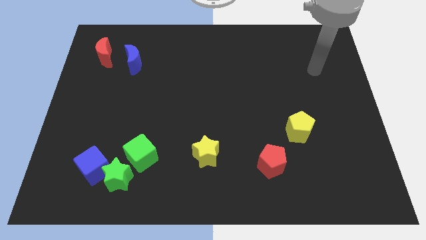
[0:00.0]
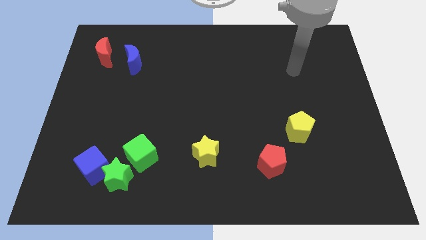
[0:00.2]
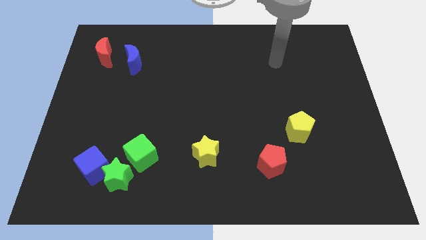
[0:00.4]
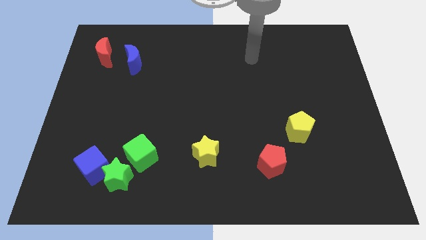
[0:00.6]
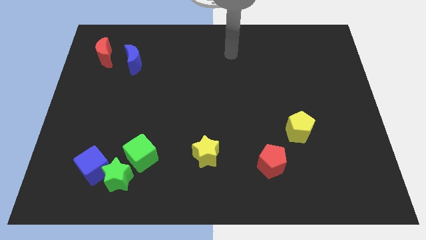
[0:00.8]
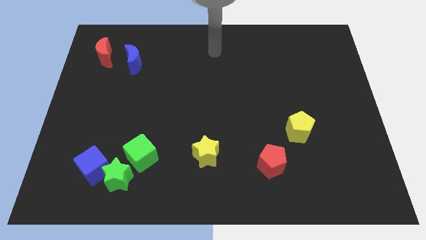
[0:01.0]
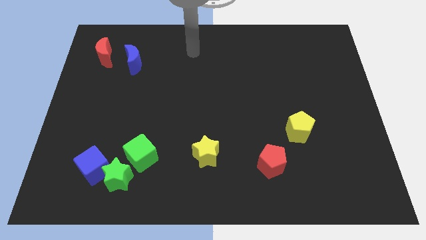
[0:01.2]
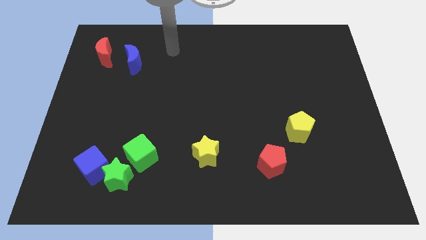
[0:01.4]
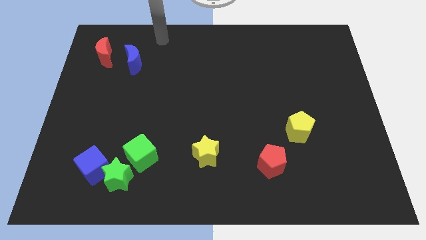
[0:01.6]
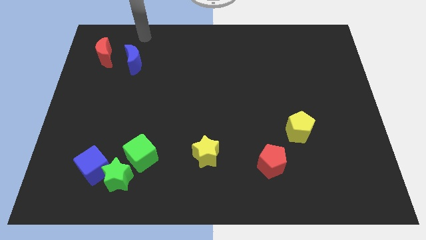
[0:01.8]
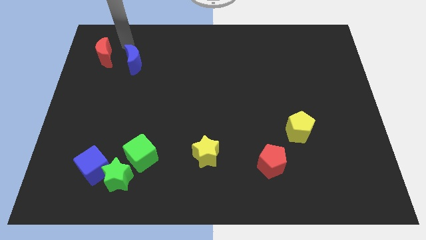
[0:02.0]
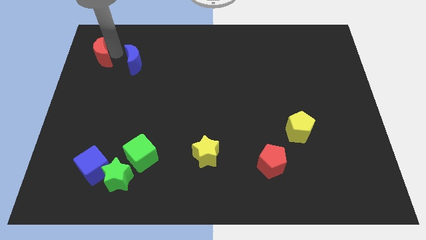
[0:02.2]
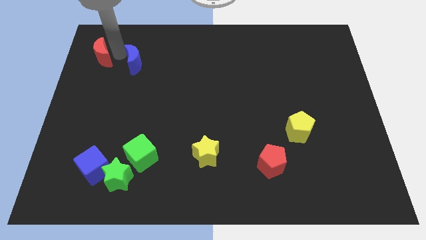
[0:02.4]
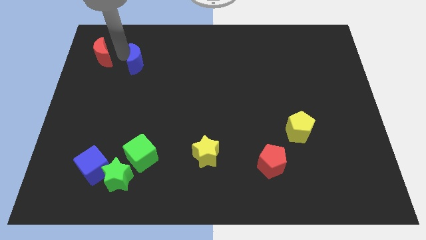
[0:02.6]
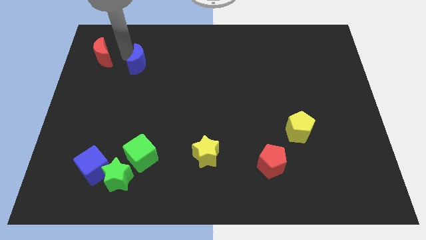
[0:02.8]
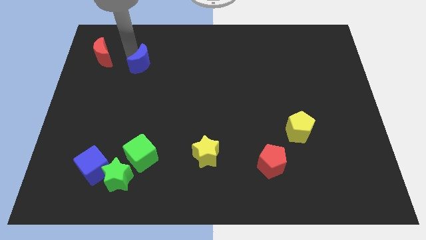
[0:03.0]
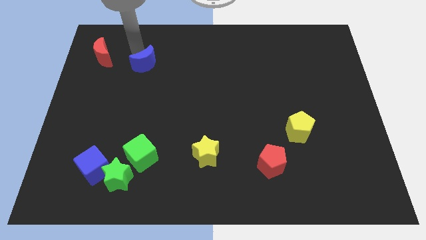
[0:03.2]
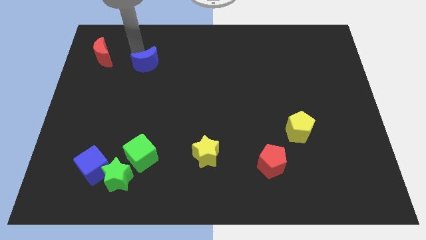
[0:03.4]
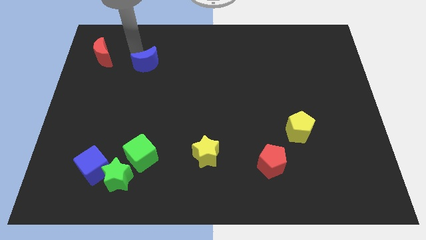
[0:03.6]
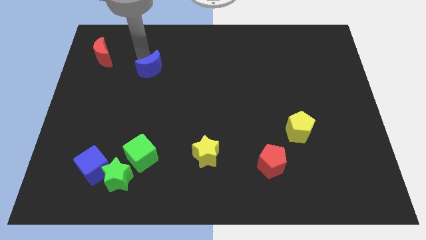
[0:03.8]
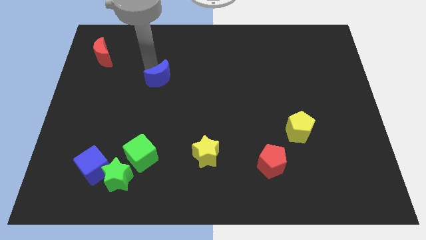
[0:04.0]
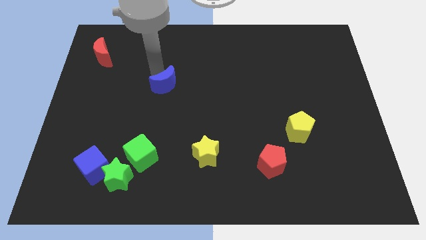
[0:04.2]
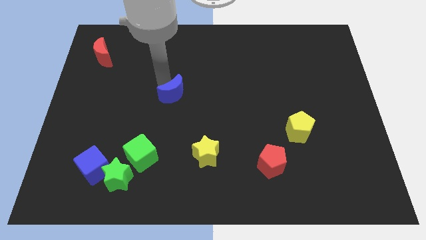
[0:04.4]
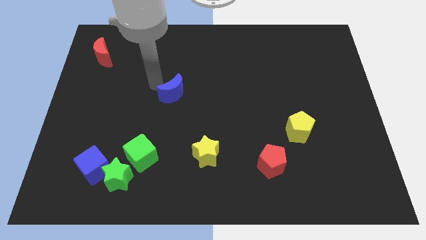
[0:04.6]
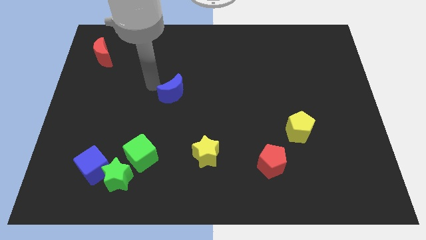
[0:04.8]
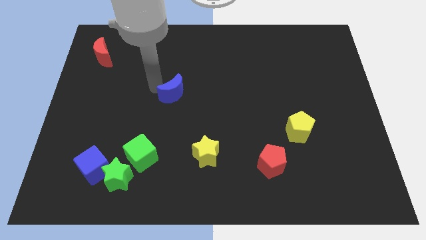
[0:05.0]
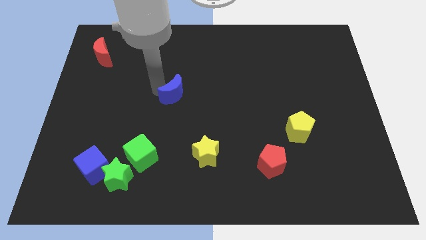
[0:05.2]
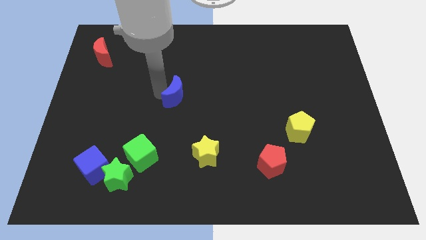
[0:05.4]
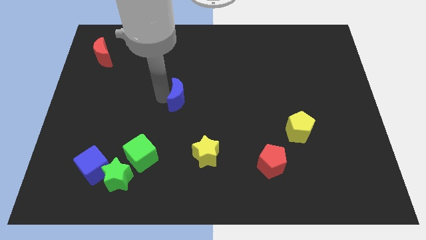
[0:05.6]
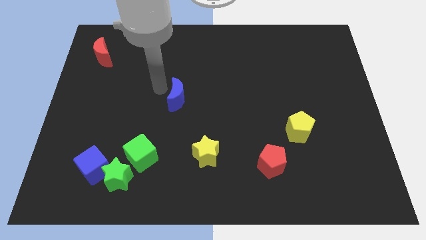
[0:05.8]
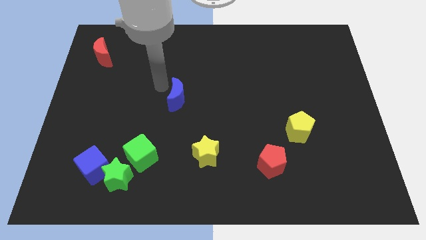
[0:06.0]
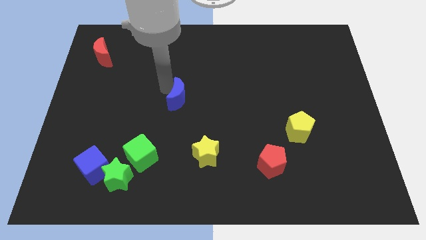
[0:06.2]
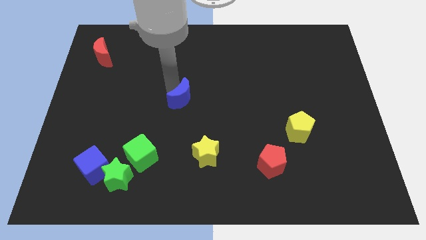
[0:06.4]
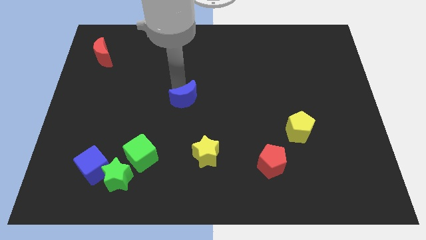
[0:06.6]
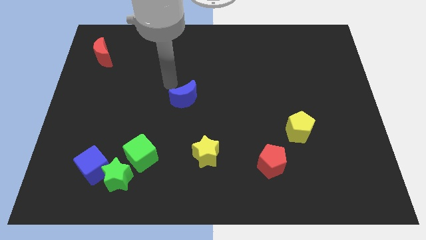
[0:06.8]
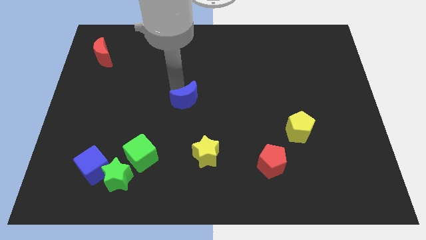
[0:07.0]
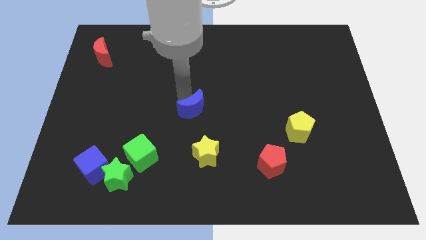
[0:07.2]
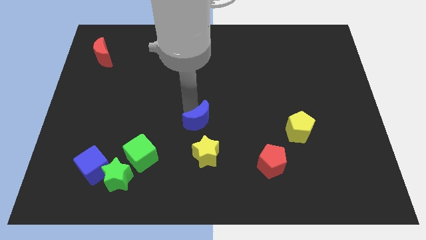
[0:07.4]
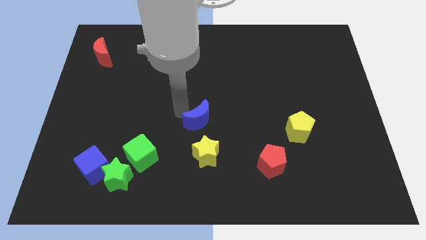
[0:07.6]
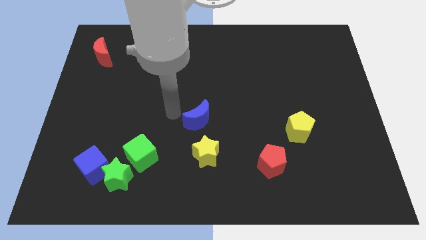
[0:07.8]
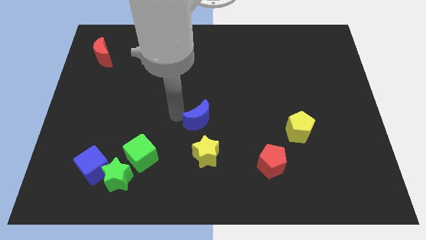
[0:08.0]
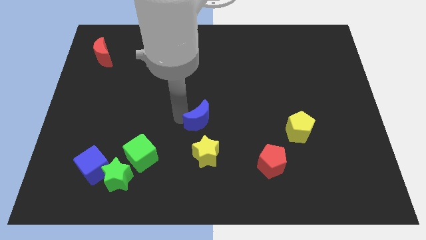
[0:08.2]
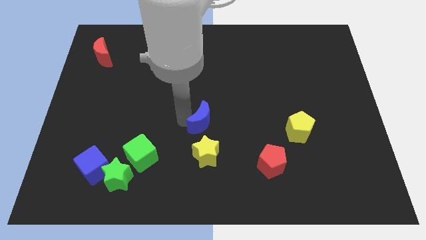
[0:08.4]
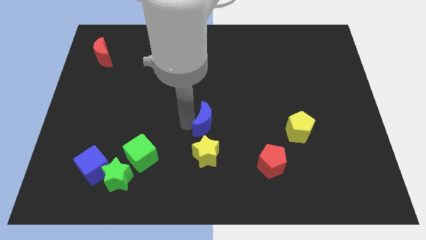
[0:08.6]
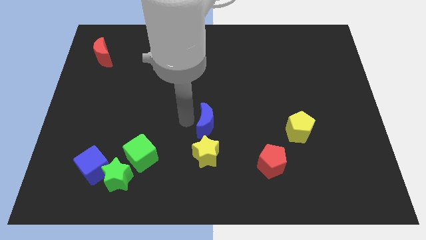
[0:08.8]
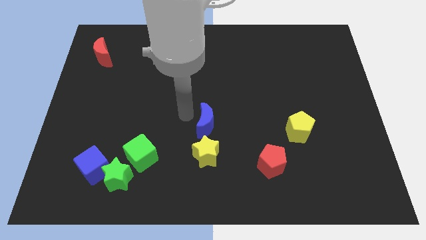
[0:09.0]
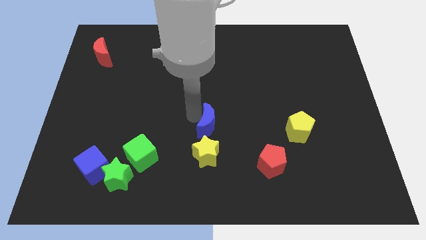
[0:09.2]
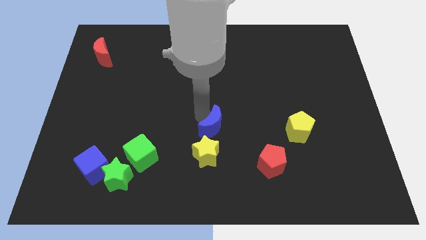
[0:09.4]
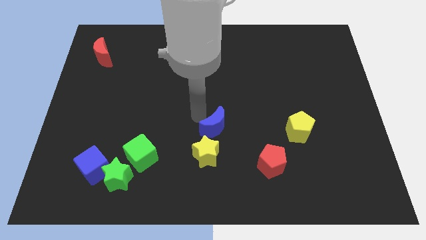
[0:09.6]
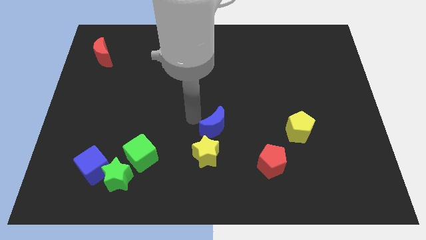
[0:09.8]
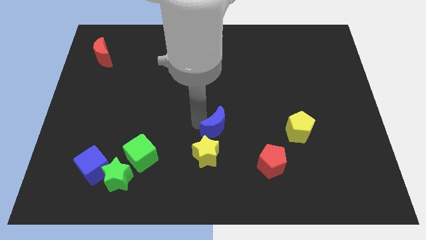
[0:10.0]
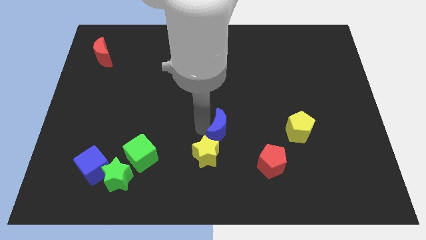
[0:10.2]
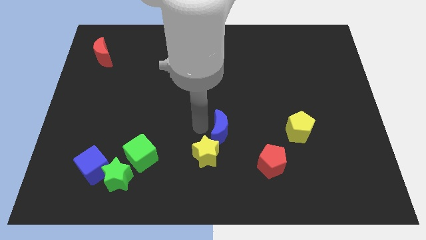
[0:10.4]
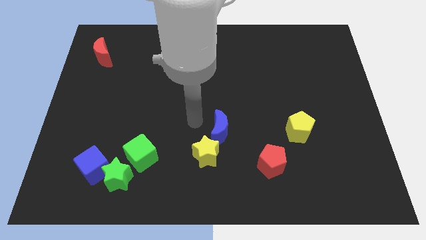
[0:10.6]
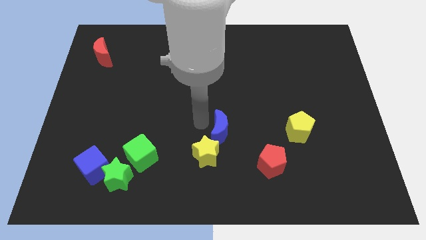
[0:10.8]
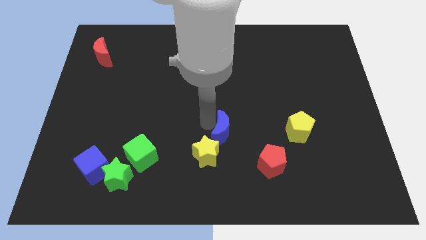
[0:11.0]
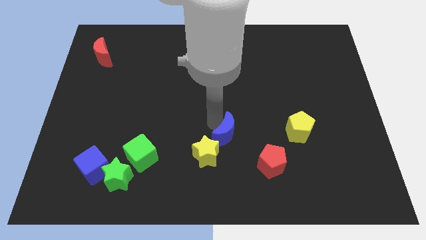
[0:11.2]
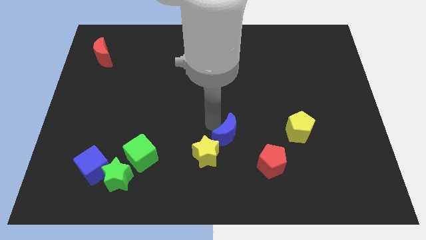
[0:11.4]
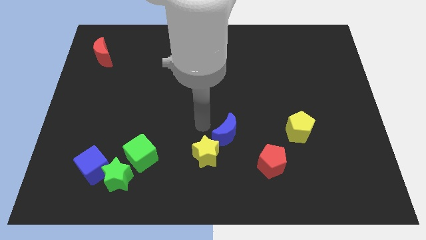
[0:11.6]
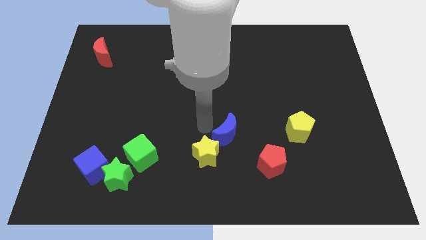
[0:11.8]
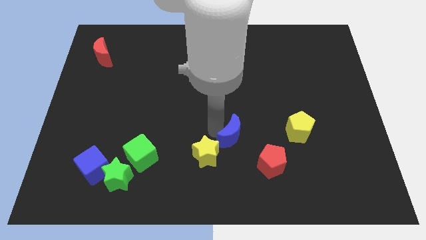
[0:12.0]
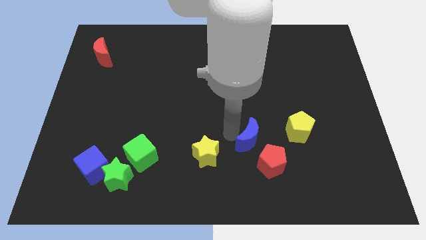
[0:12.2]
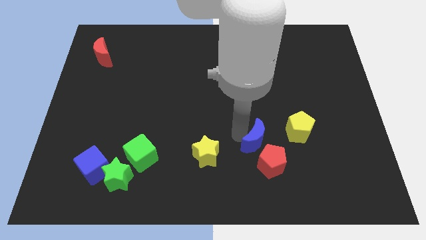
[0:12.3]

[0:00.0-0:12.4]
slide the blue moon close to the red pentagon

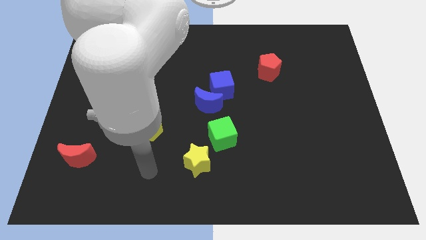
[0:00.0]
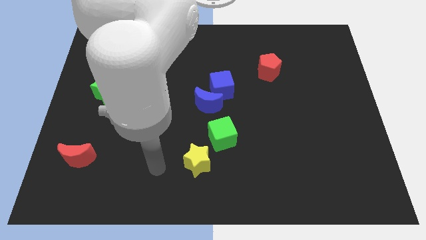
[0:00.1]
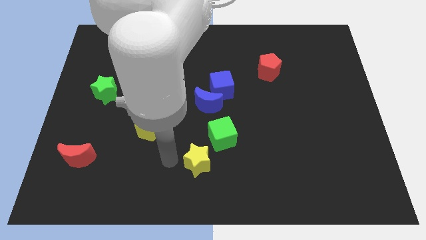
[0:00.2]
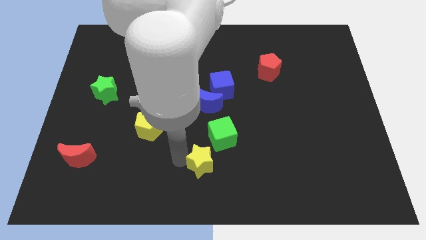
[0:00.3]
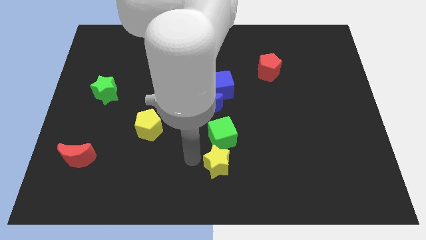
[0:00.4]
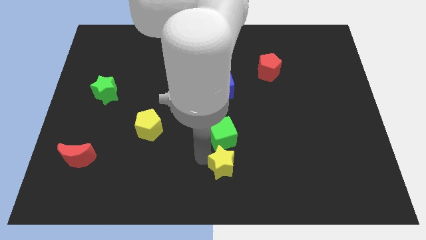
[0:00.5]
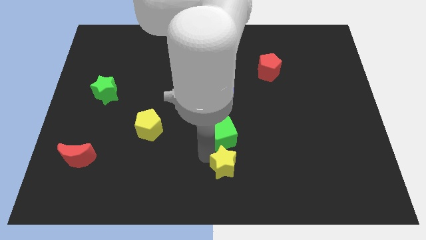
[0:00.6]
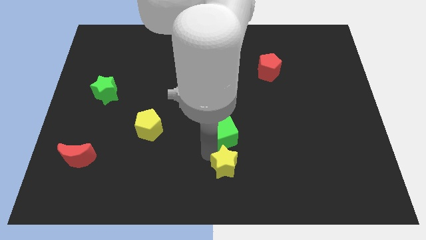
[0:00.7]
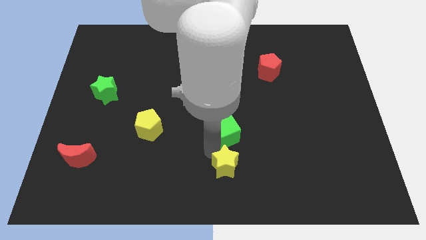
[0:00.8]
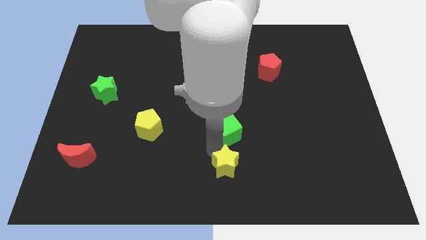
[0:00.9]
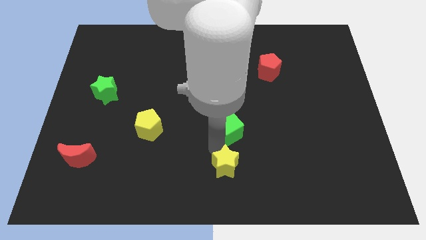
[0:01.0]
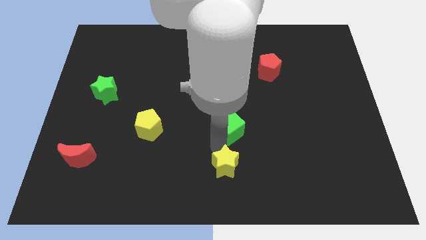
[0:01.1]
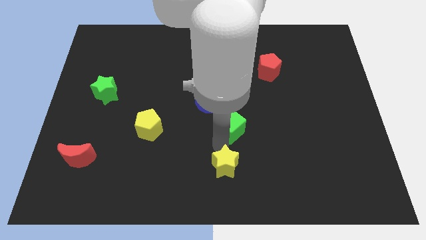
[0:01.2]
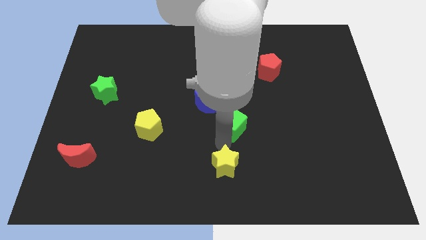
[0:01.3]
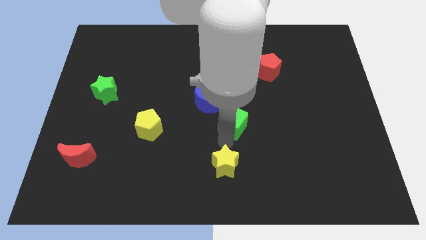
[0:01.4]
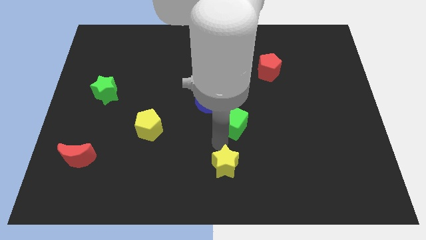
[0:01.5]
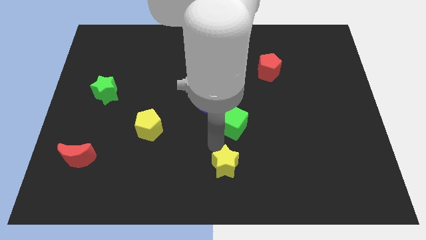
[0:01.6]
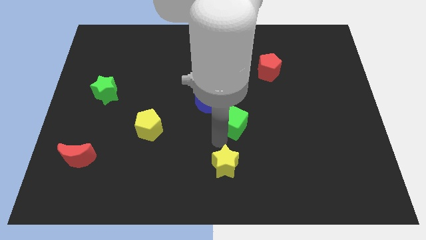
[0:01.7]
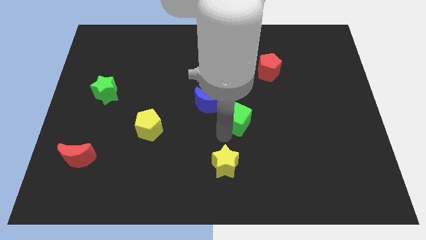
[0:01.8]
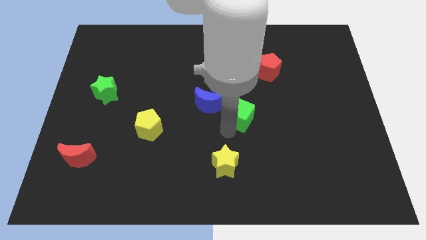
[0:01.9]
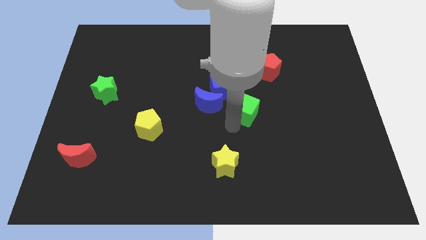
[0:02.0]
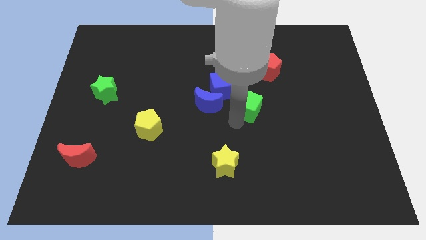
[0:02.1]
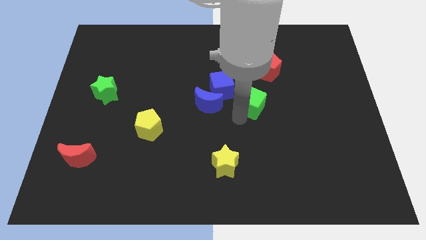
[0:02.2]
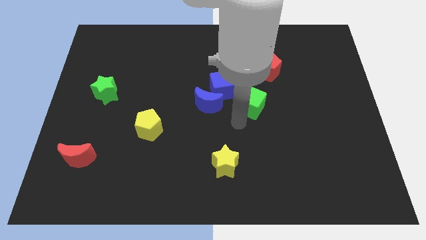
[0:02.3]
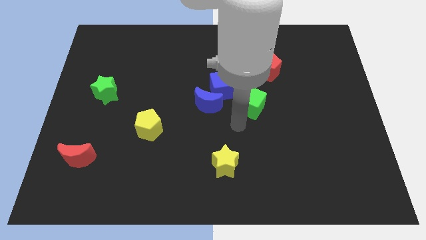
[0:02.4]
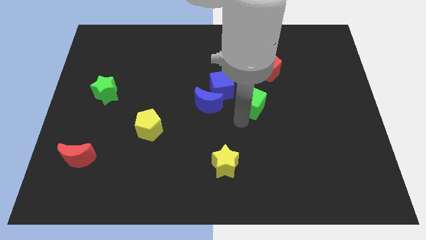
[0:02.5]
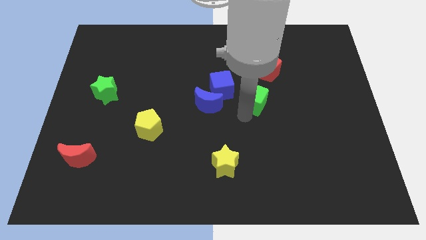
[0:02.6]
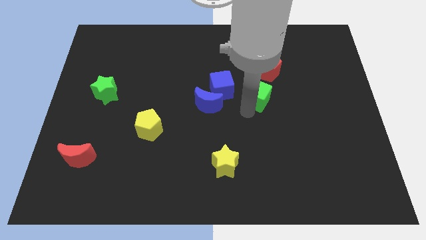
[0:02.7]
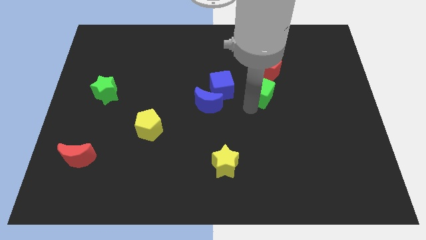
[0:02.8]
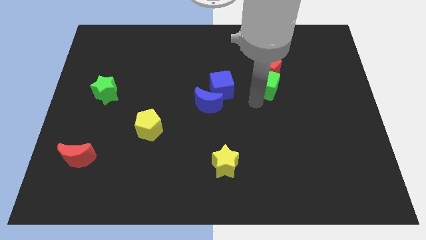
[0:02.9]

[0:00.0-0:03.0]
move the green cube close to the red pentagon
